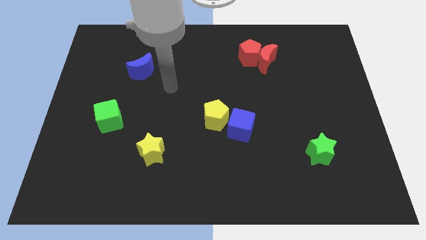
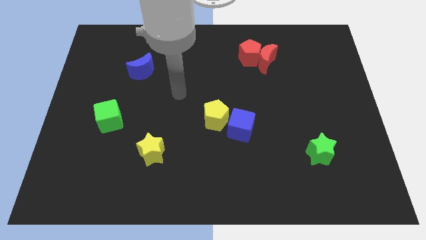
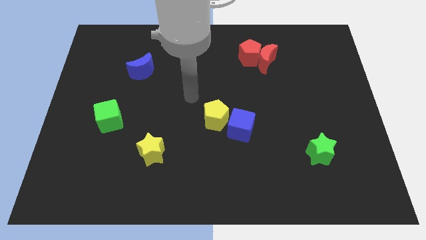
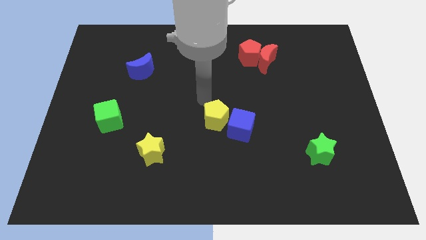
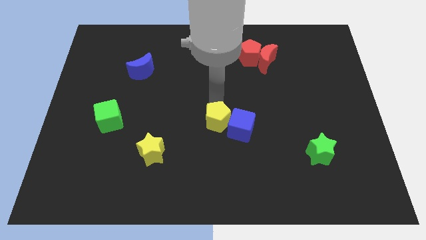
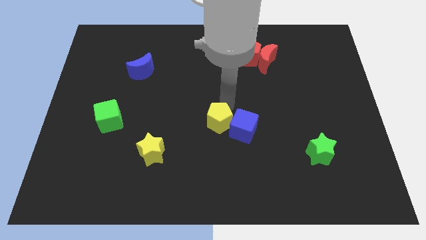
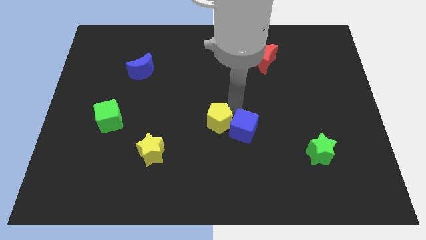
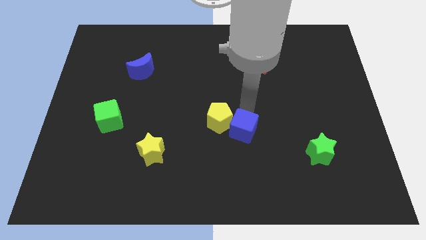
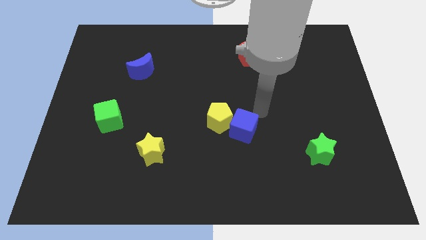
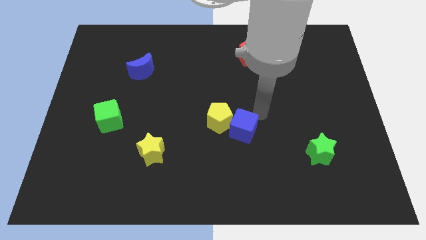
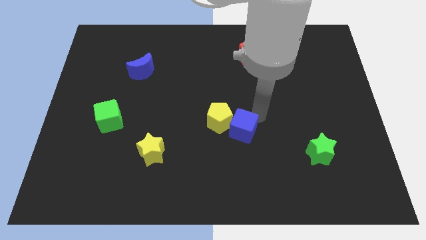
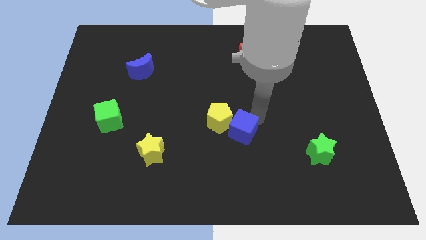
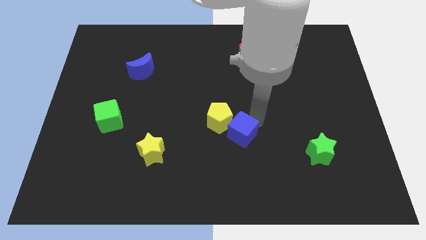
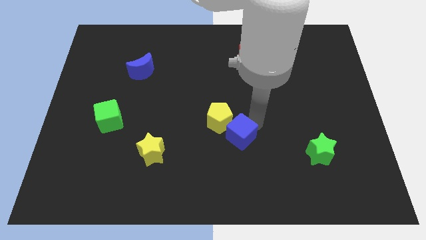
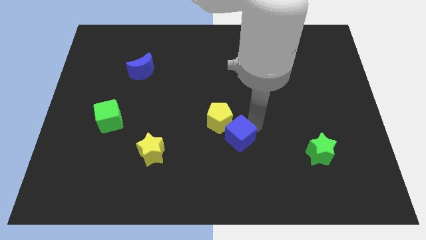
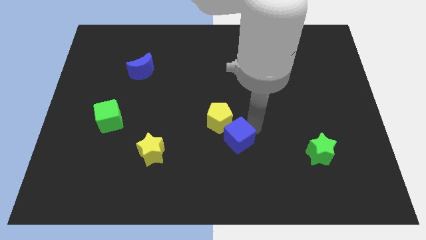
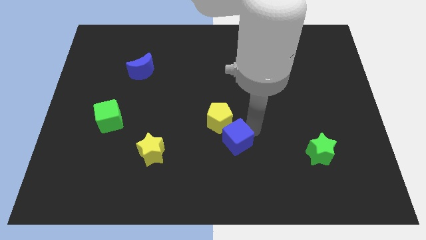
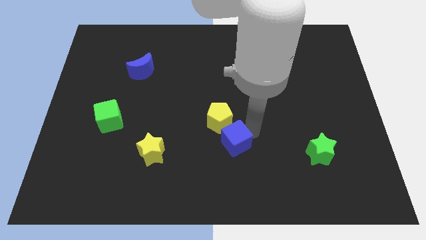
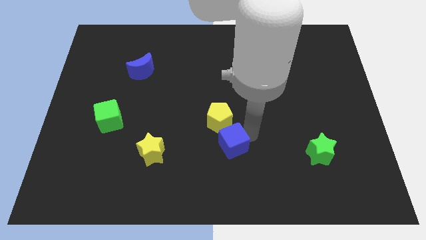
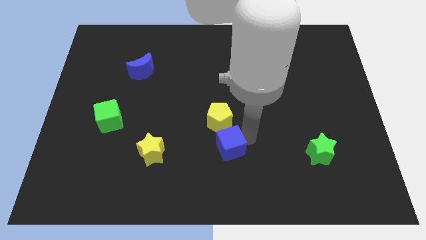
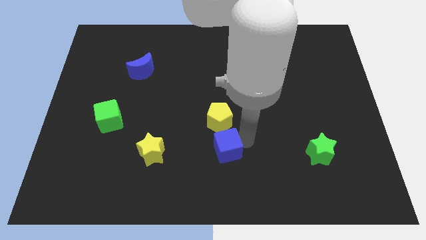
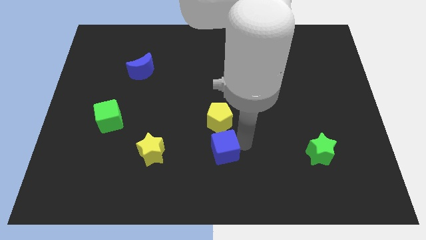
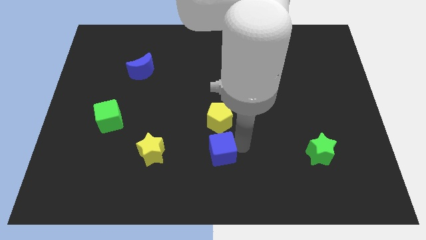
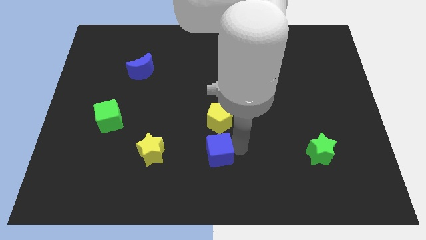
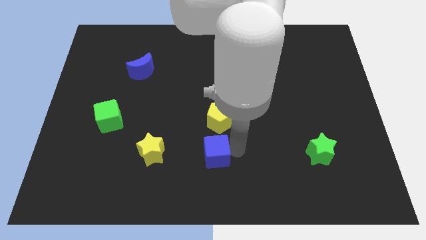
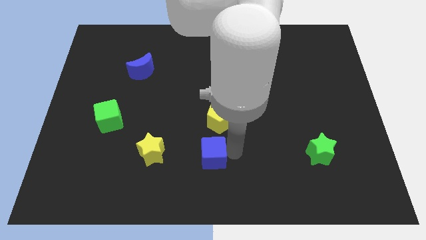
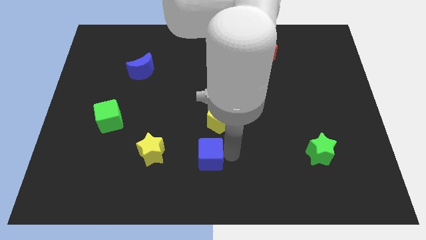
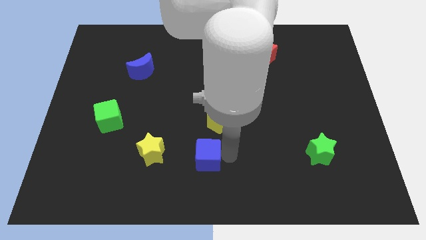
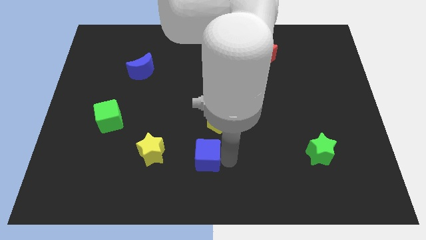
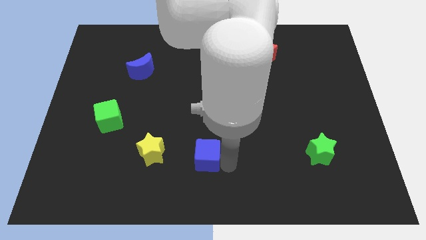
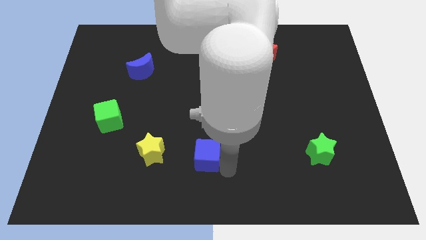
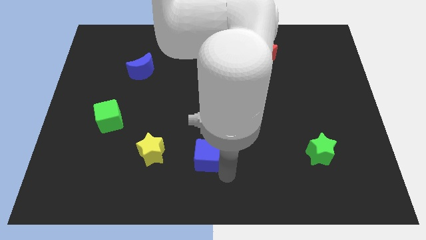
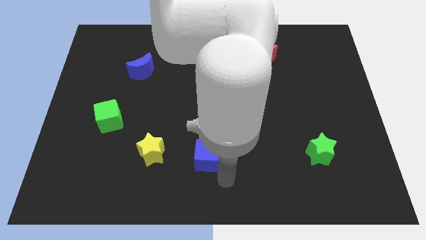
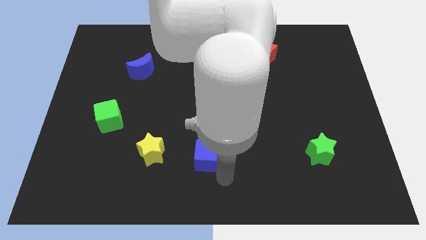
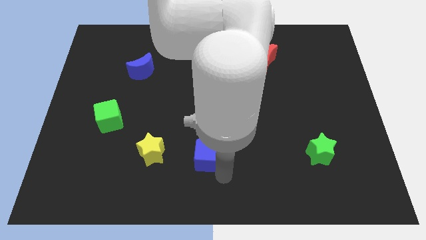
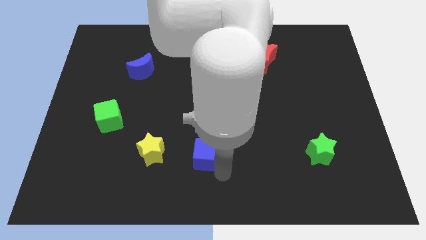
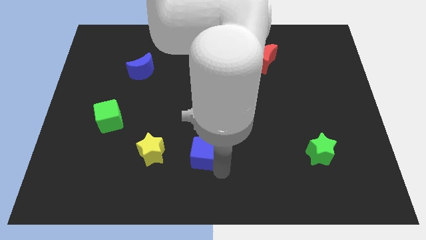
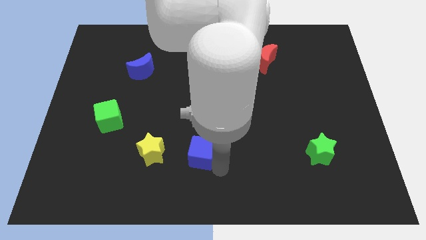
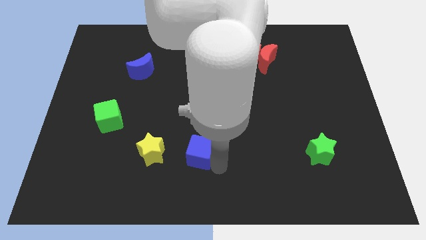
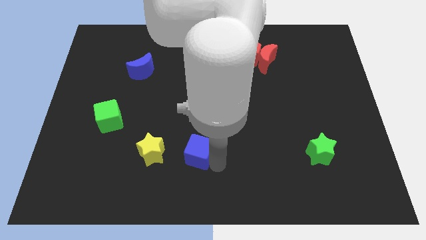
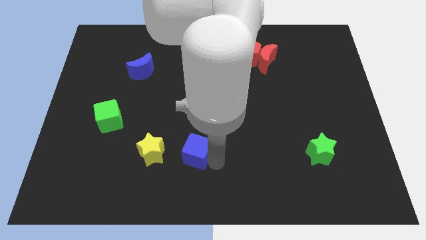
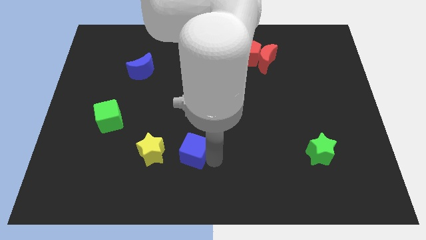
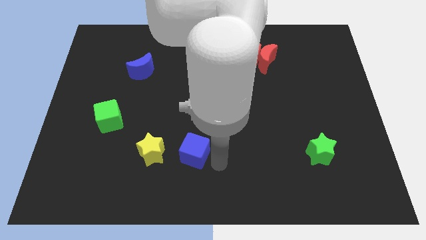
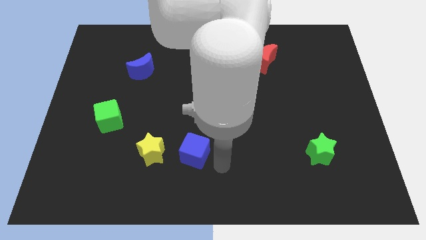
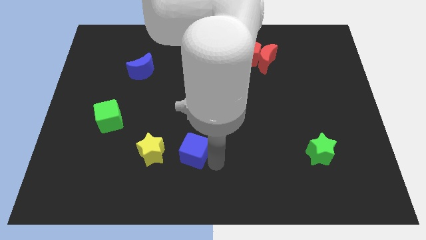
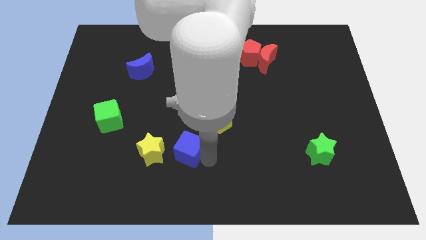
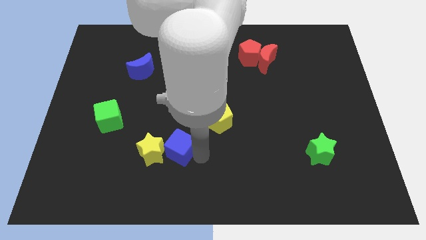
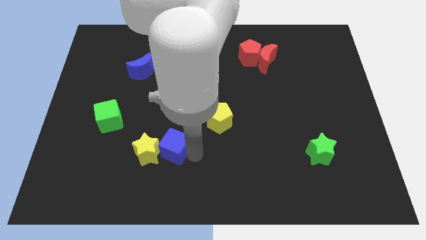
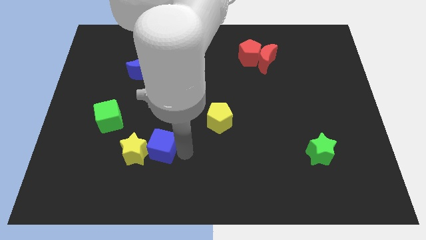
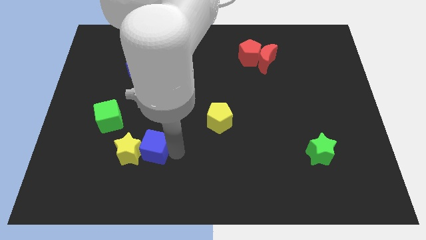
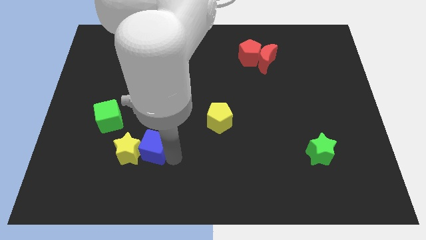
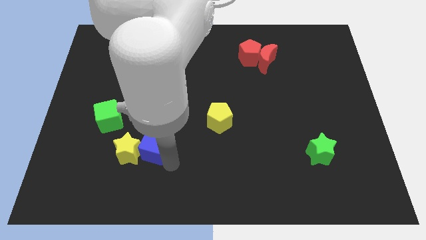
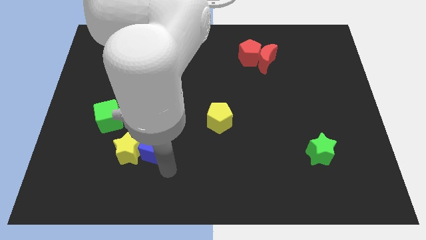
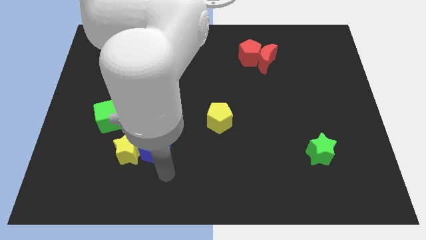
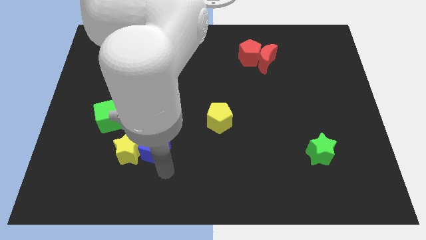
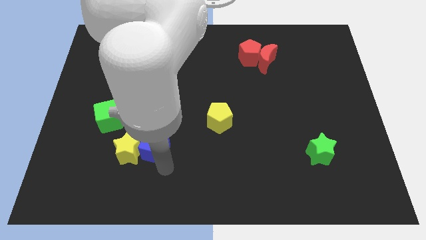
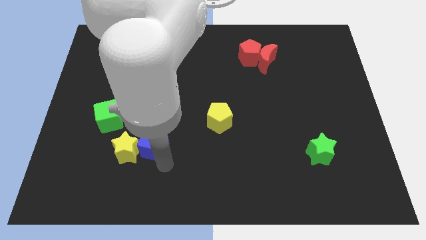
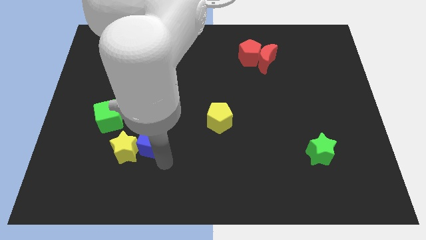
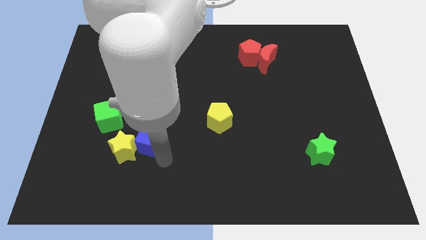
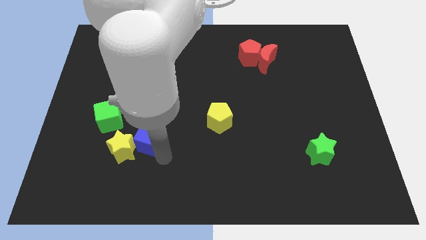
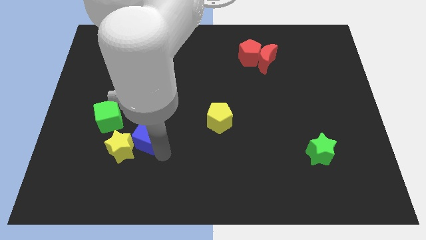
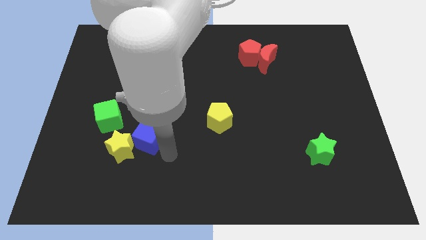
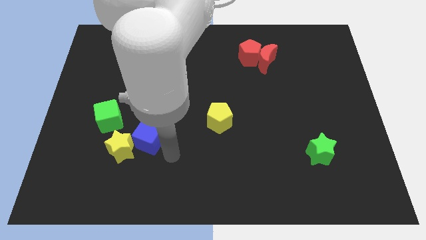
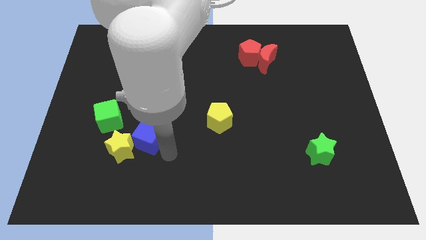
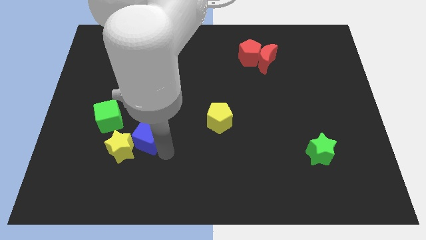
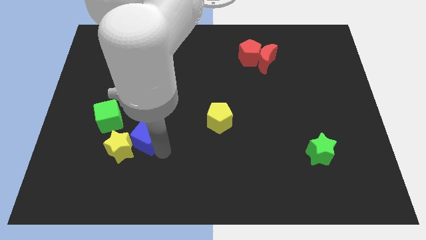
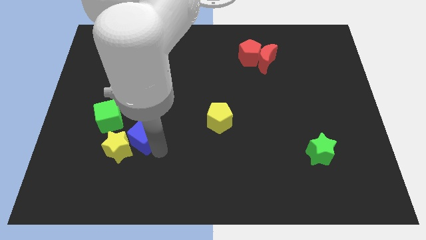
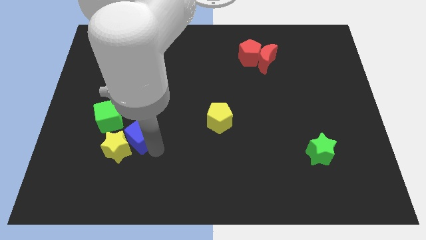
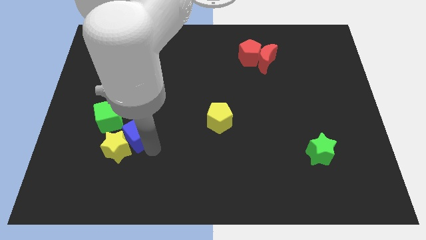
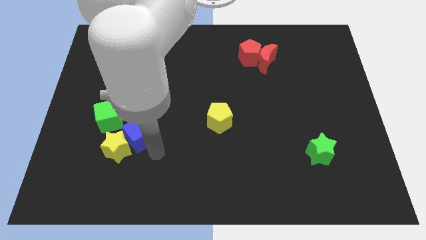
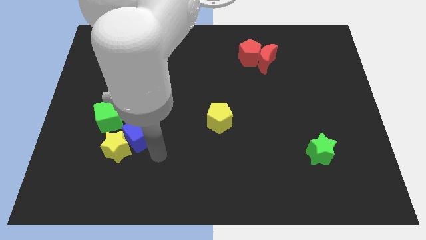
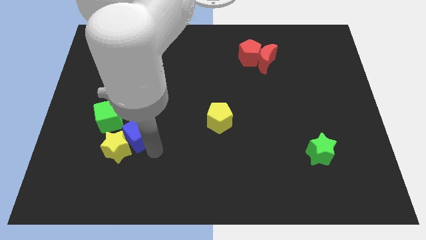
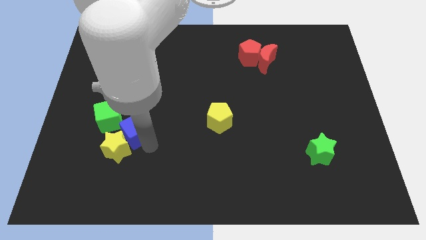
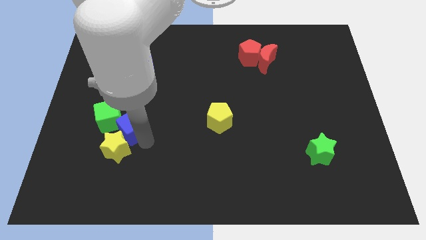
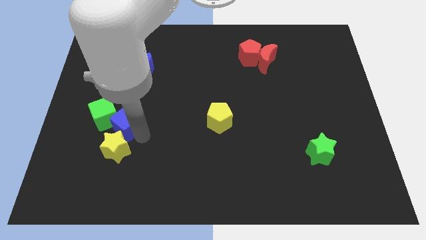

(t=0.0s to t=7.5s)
put the blue cube to the green cube
